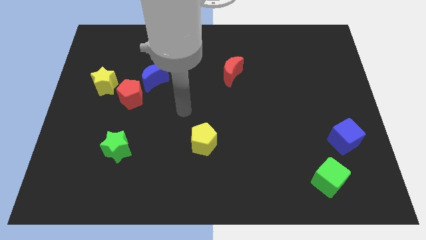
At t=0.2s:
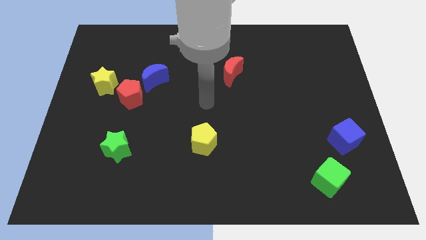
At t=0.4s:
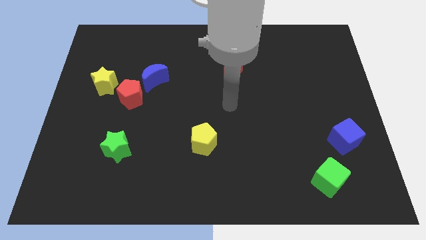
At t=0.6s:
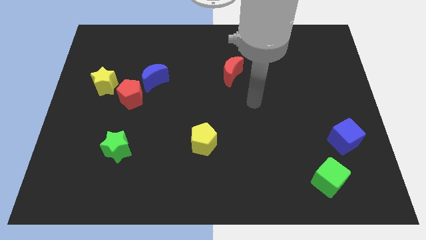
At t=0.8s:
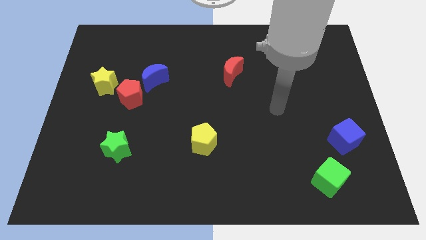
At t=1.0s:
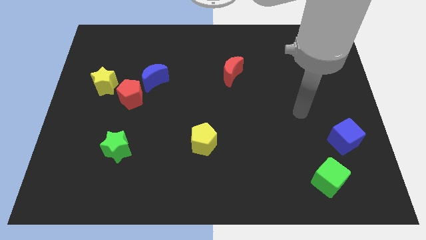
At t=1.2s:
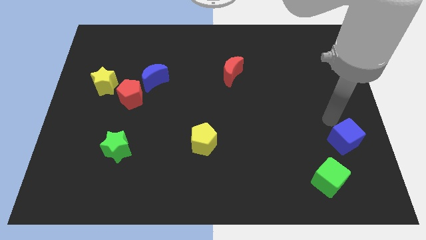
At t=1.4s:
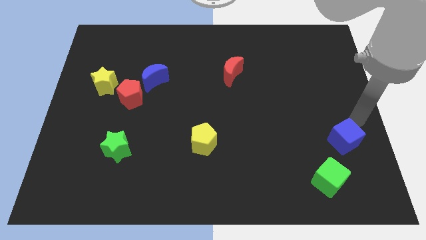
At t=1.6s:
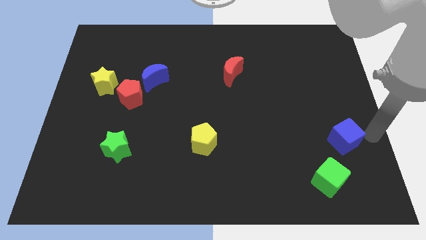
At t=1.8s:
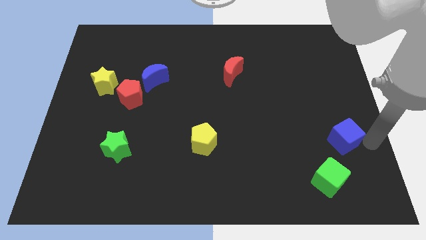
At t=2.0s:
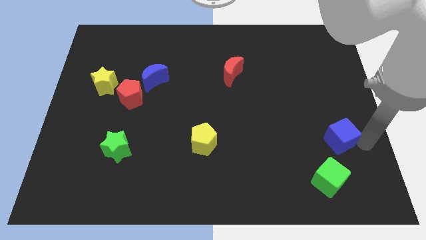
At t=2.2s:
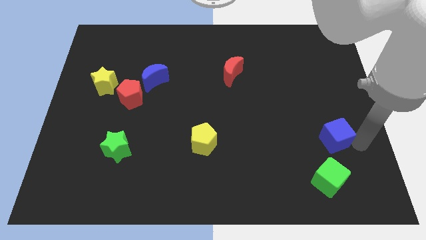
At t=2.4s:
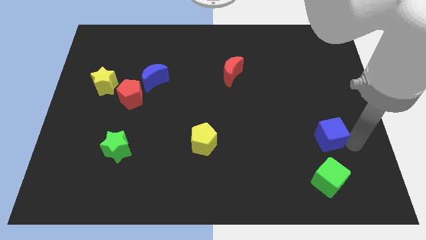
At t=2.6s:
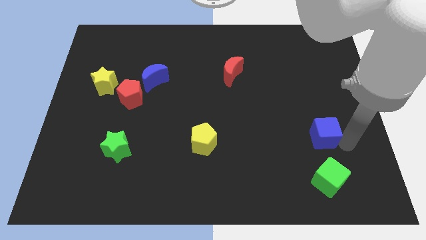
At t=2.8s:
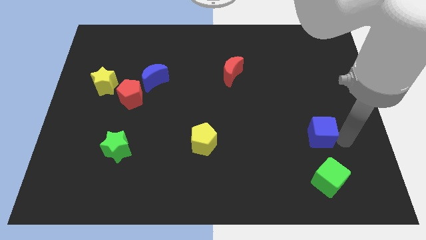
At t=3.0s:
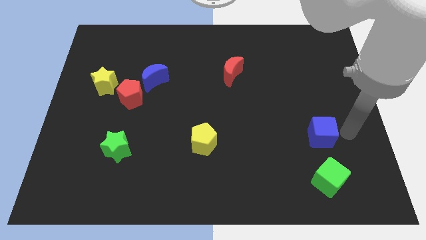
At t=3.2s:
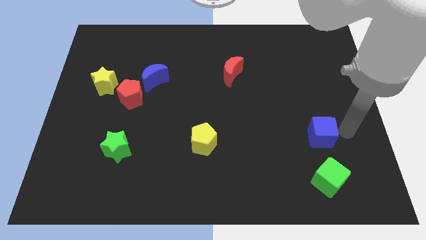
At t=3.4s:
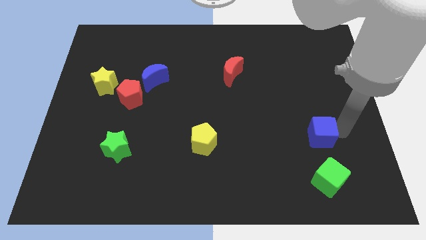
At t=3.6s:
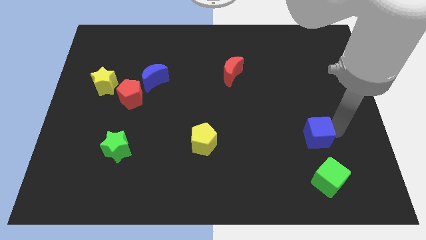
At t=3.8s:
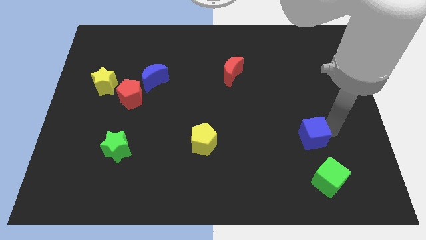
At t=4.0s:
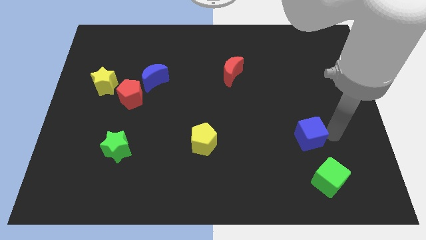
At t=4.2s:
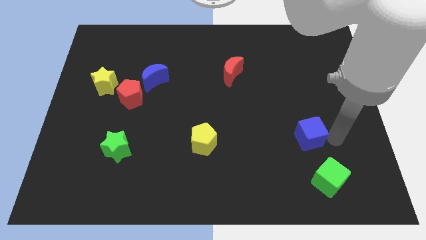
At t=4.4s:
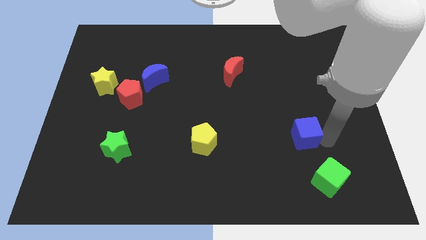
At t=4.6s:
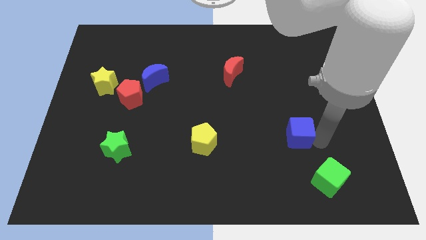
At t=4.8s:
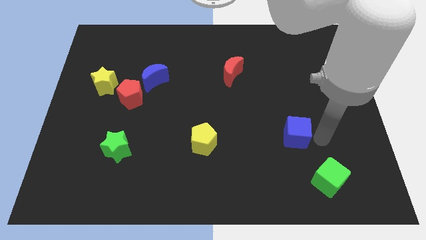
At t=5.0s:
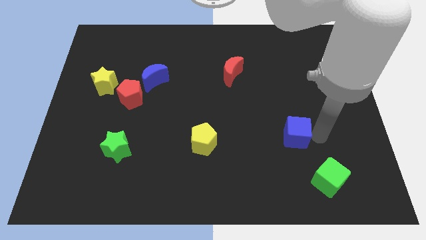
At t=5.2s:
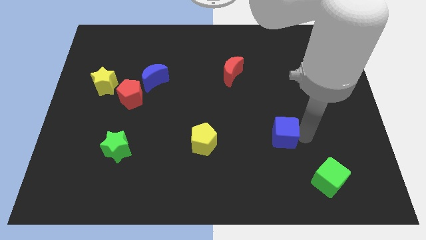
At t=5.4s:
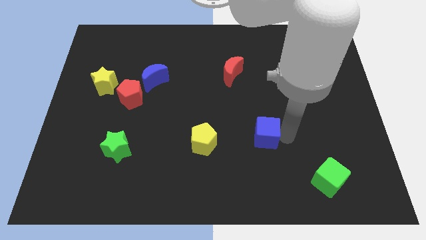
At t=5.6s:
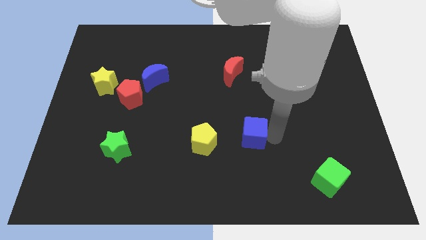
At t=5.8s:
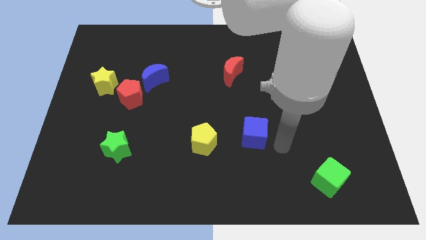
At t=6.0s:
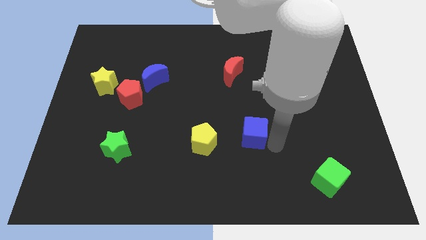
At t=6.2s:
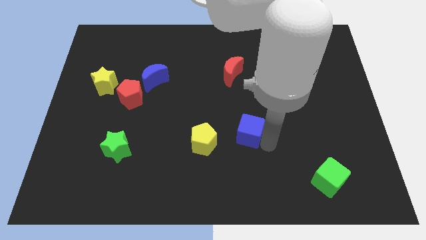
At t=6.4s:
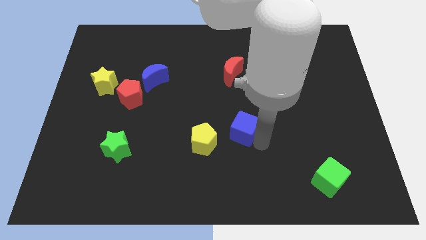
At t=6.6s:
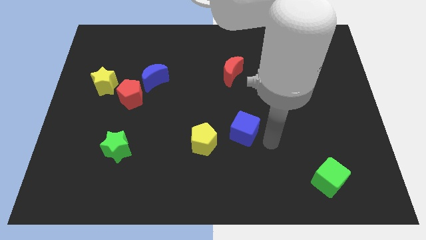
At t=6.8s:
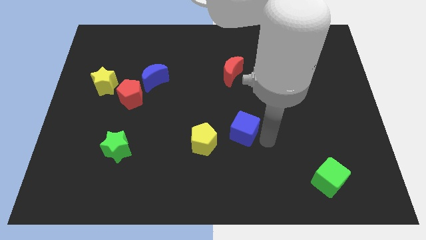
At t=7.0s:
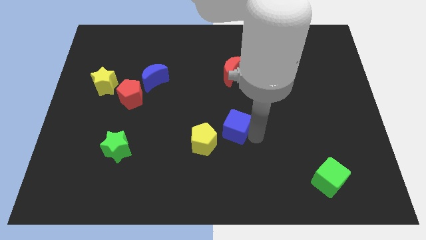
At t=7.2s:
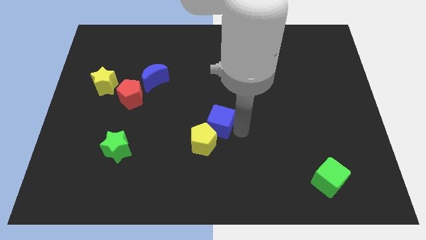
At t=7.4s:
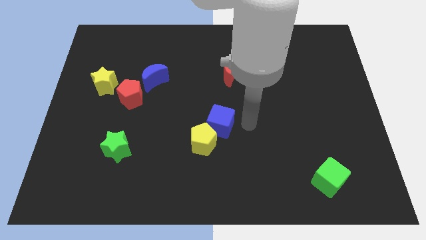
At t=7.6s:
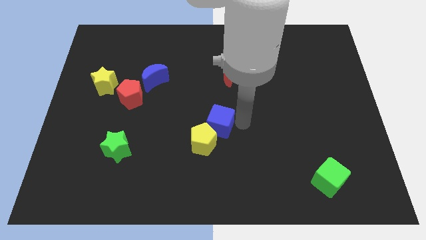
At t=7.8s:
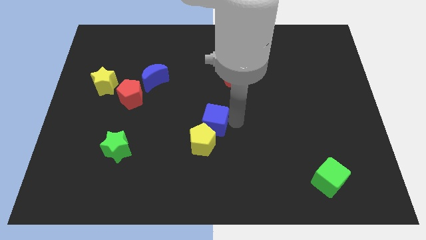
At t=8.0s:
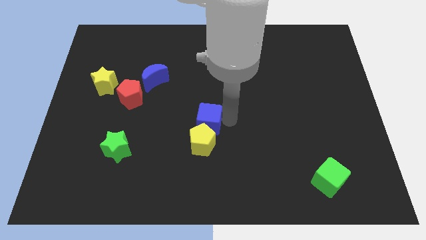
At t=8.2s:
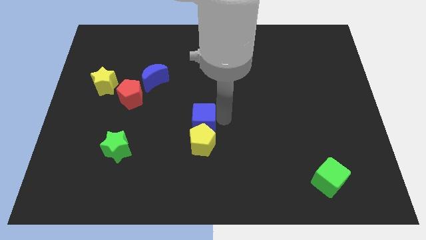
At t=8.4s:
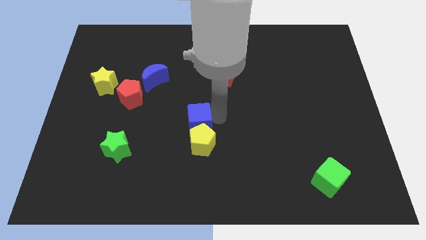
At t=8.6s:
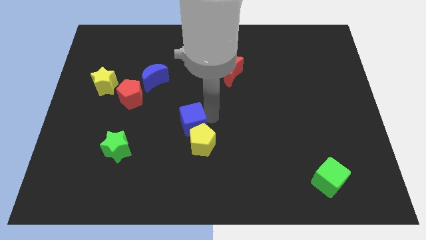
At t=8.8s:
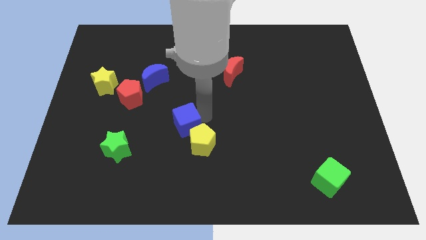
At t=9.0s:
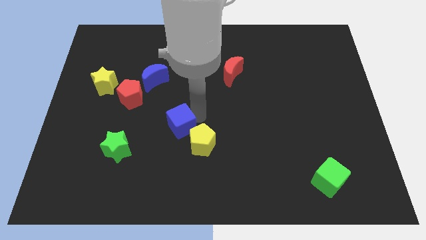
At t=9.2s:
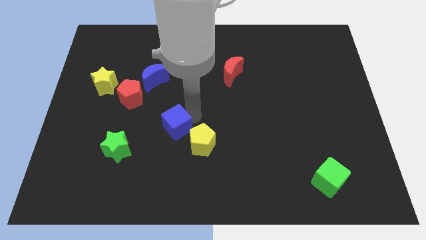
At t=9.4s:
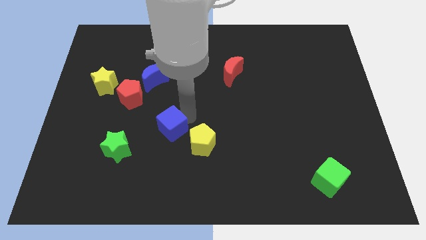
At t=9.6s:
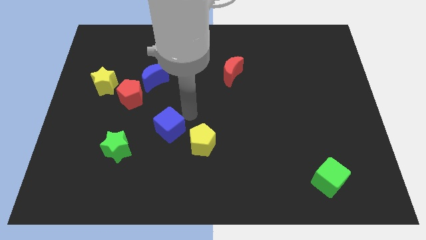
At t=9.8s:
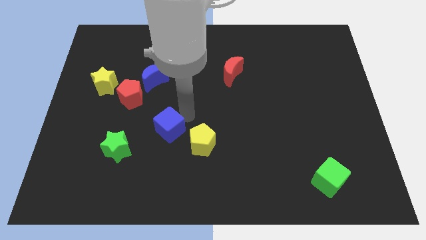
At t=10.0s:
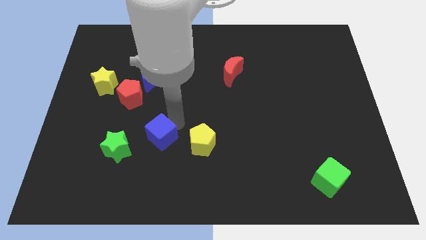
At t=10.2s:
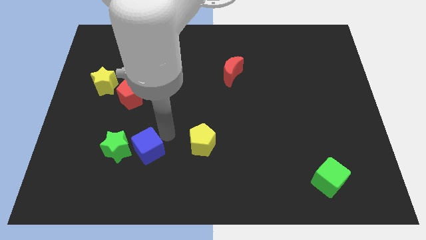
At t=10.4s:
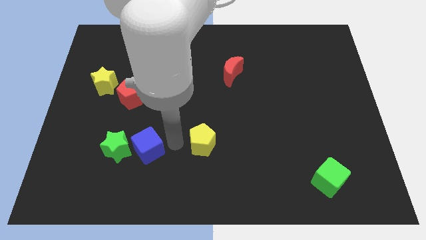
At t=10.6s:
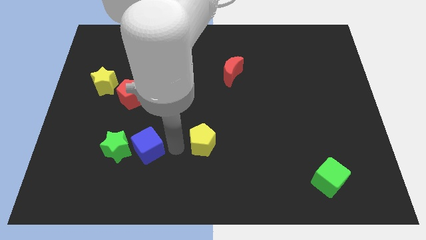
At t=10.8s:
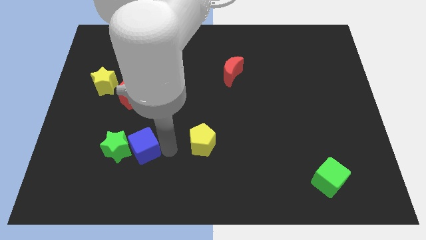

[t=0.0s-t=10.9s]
slide the blue cube towards the green star

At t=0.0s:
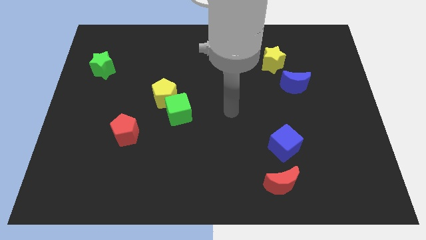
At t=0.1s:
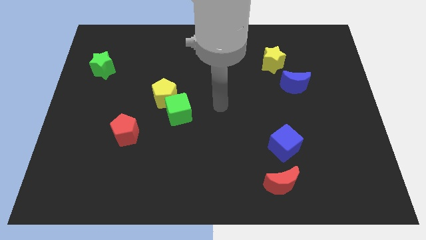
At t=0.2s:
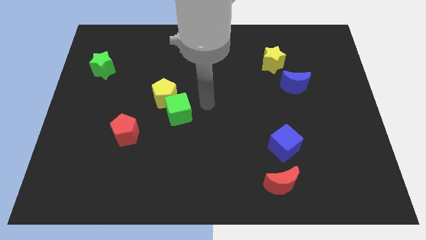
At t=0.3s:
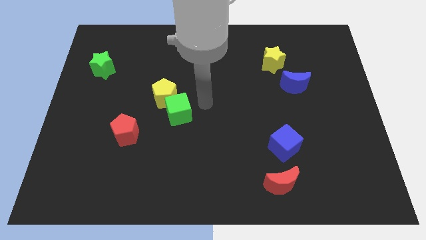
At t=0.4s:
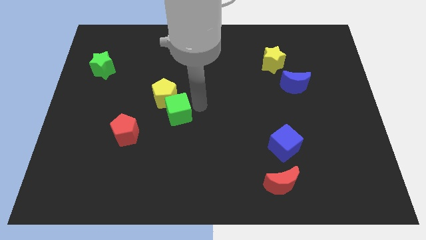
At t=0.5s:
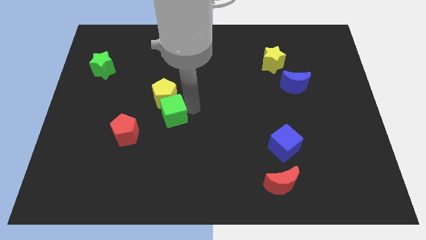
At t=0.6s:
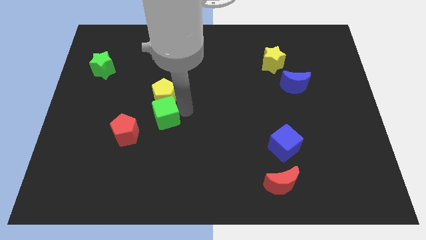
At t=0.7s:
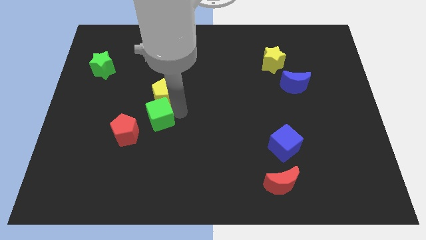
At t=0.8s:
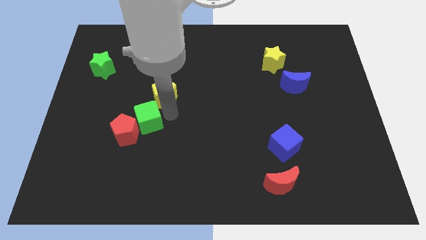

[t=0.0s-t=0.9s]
put the green cube next to the red pentagon
